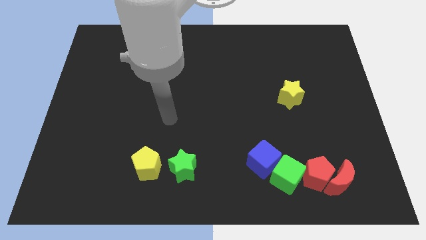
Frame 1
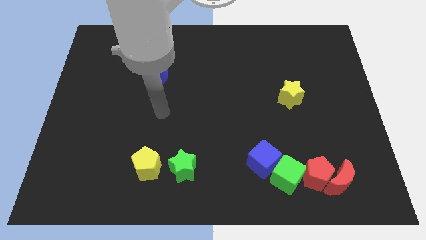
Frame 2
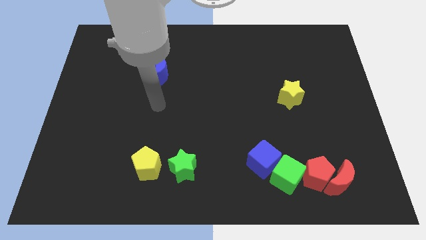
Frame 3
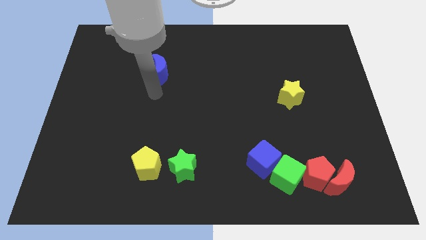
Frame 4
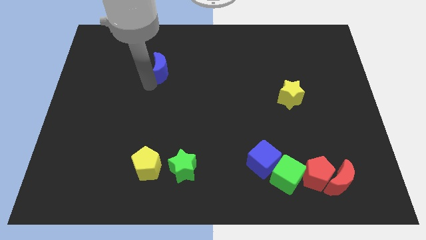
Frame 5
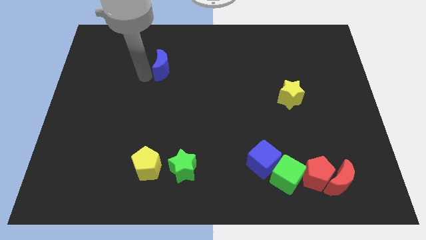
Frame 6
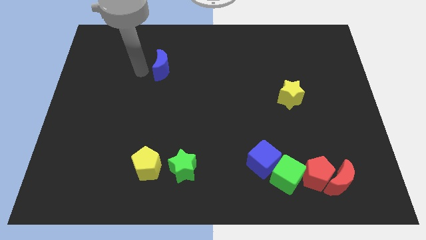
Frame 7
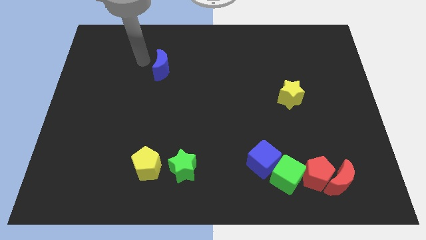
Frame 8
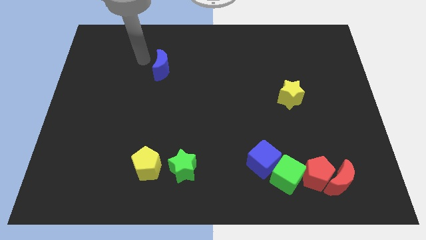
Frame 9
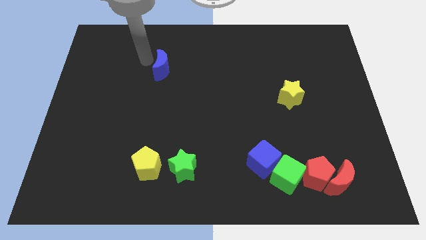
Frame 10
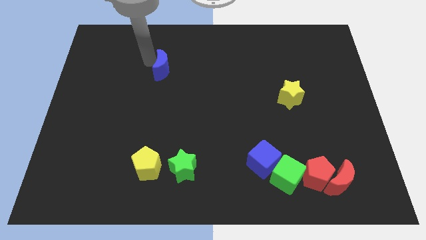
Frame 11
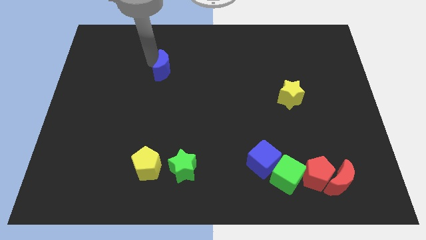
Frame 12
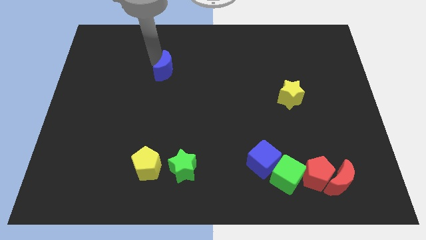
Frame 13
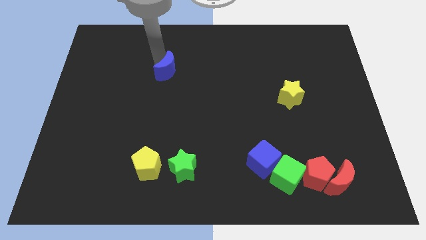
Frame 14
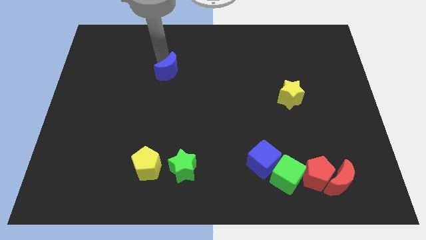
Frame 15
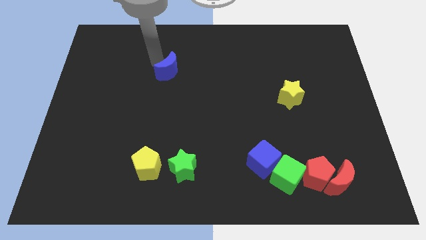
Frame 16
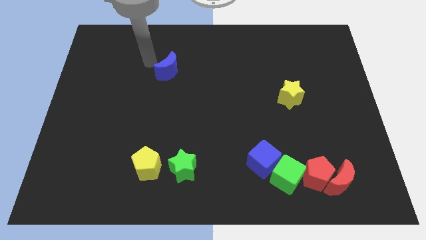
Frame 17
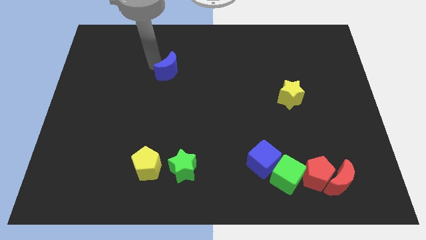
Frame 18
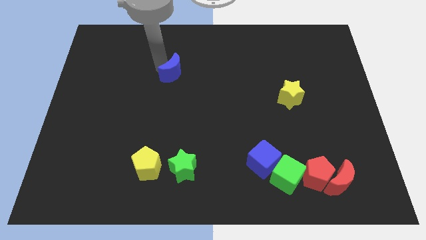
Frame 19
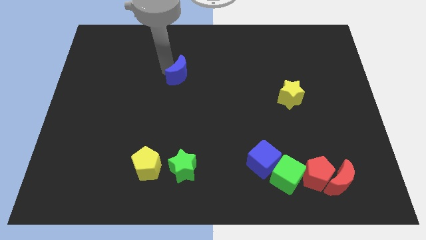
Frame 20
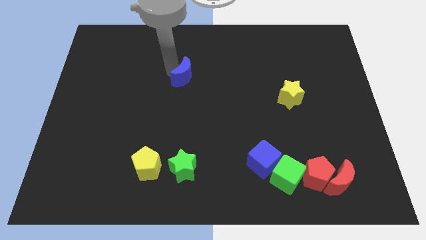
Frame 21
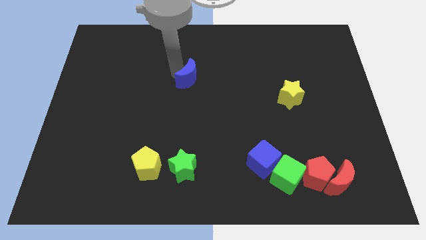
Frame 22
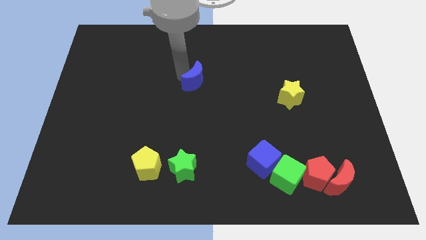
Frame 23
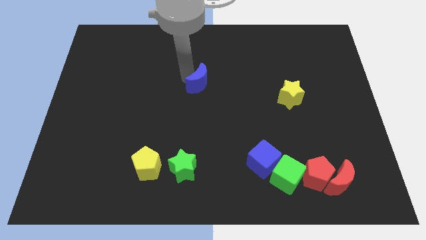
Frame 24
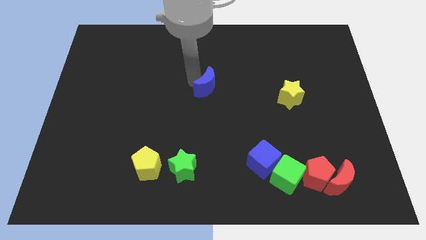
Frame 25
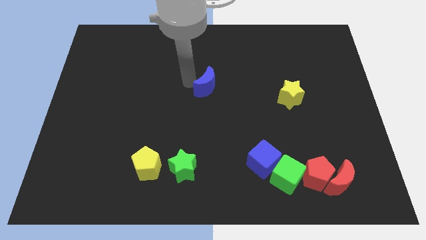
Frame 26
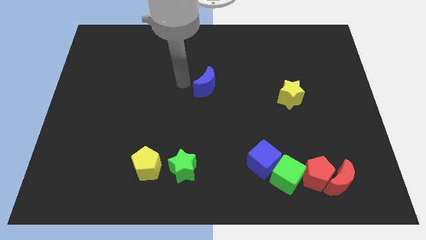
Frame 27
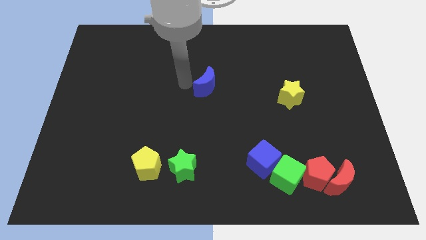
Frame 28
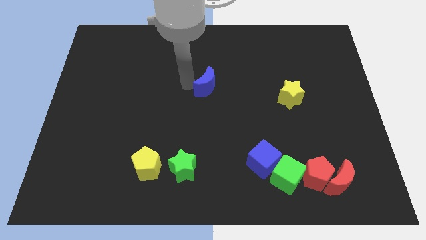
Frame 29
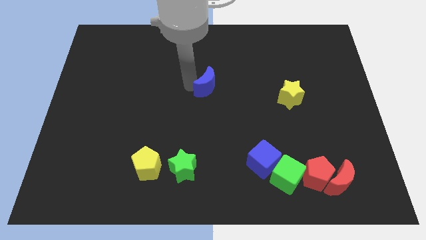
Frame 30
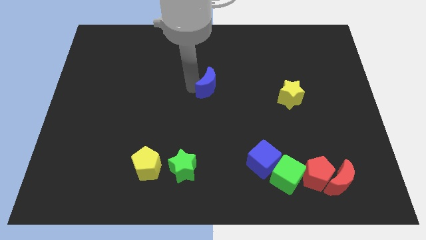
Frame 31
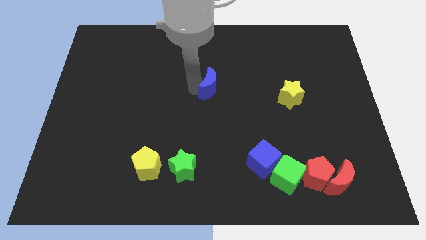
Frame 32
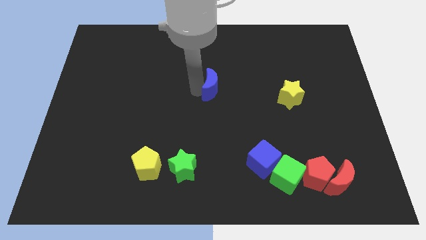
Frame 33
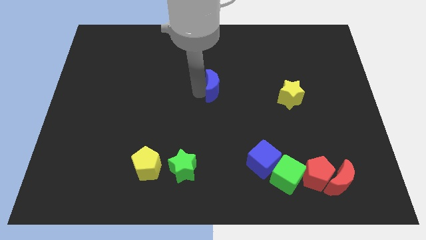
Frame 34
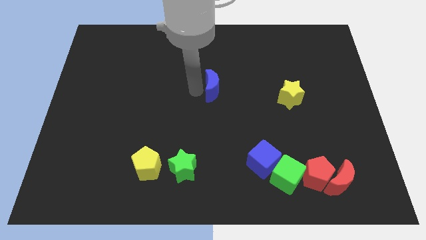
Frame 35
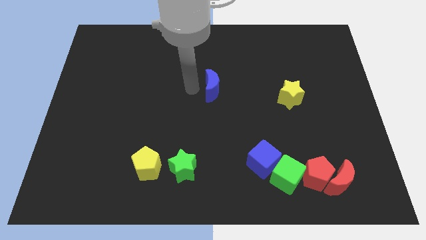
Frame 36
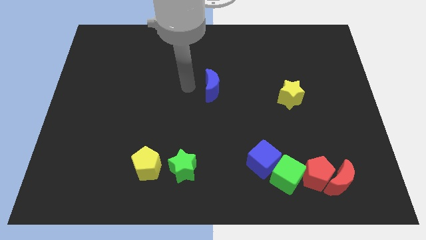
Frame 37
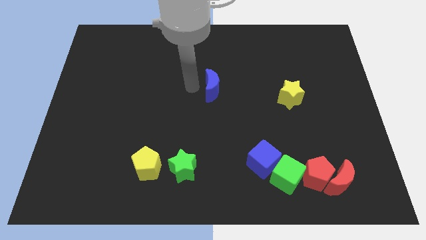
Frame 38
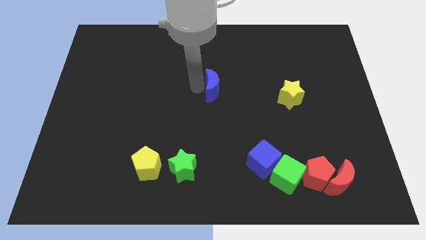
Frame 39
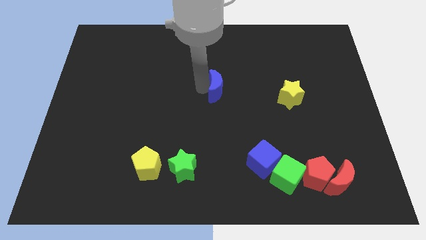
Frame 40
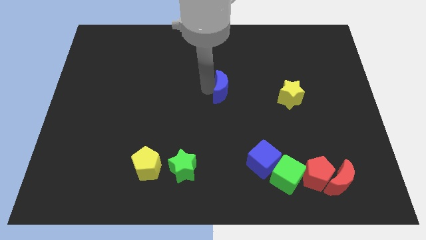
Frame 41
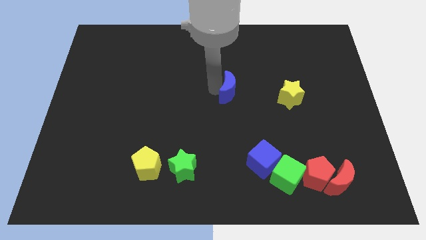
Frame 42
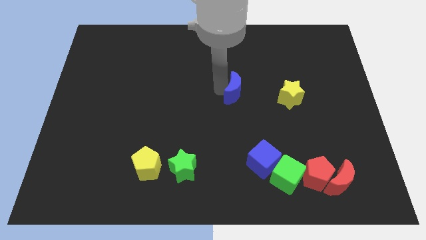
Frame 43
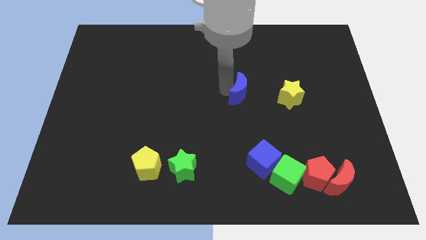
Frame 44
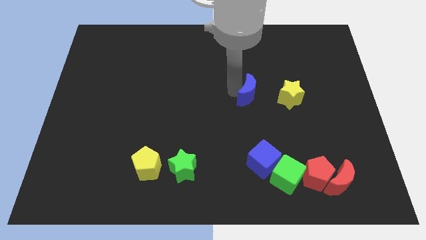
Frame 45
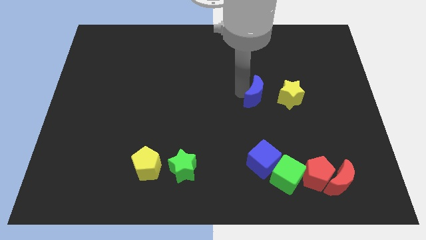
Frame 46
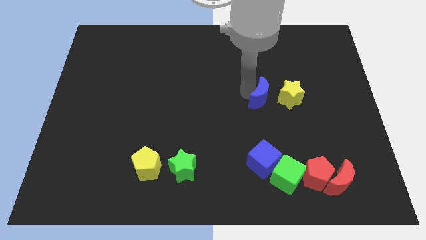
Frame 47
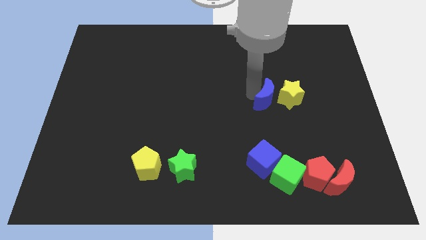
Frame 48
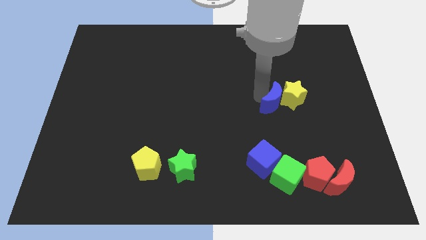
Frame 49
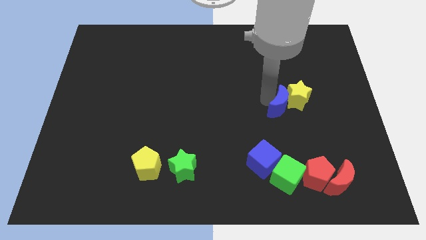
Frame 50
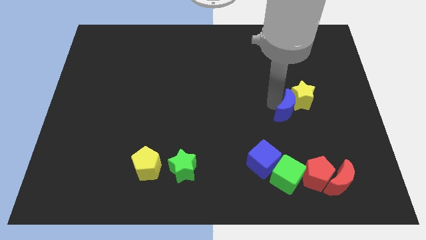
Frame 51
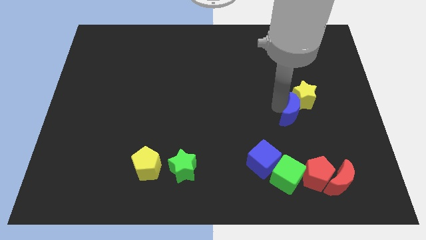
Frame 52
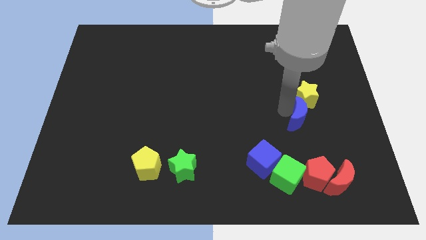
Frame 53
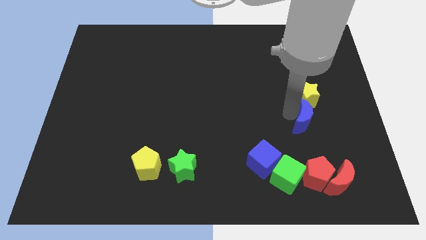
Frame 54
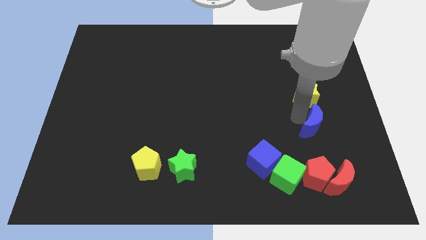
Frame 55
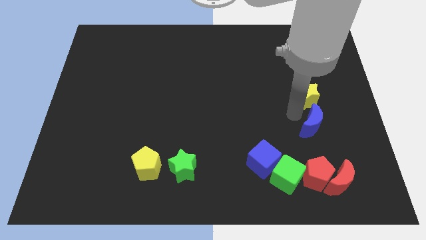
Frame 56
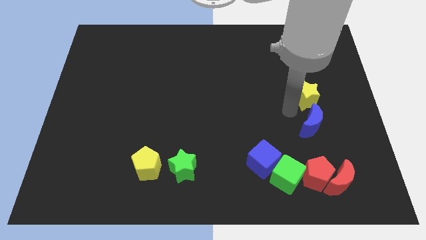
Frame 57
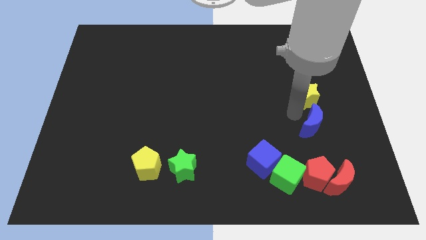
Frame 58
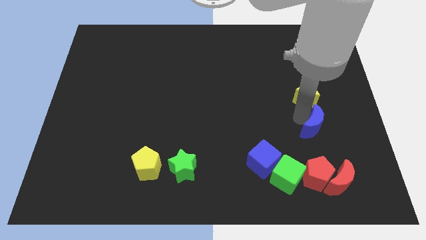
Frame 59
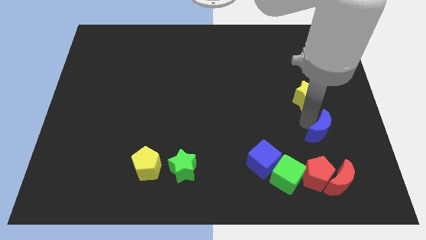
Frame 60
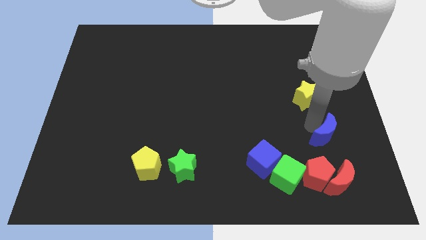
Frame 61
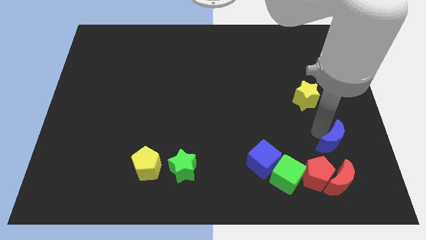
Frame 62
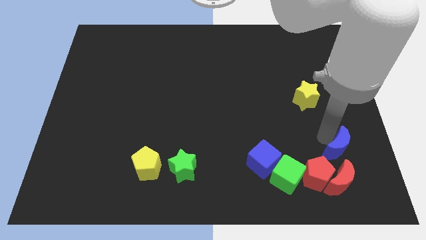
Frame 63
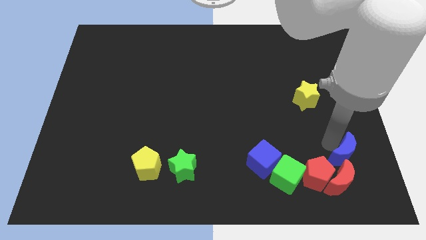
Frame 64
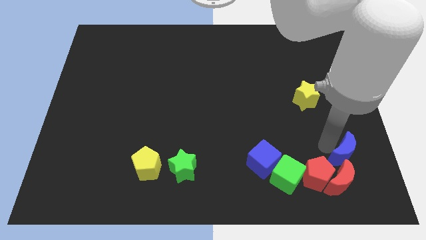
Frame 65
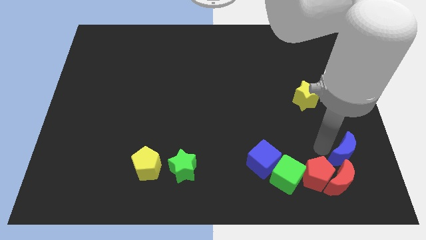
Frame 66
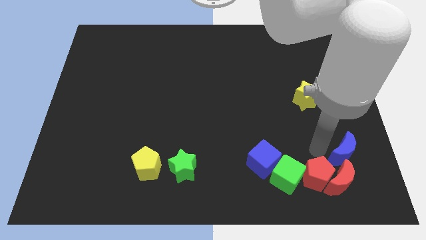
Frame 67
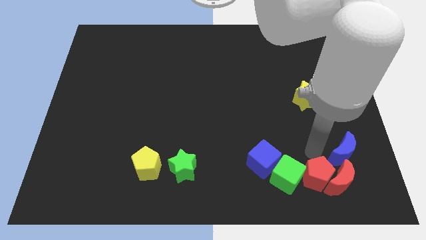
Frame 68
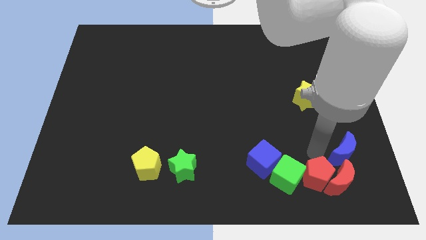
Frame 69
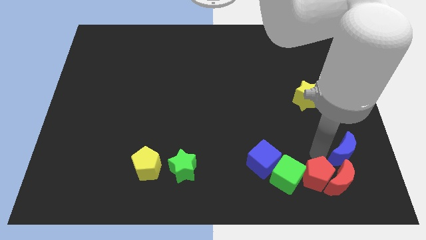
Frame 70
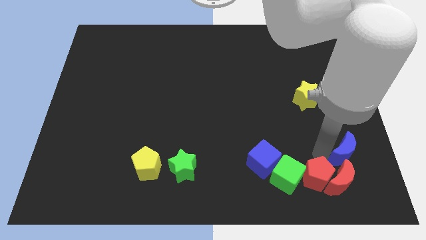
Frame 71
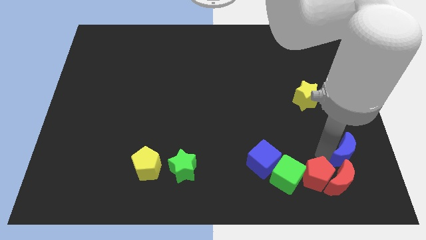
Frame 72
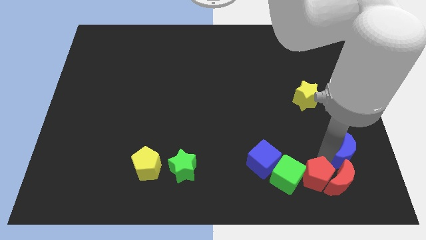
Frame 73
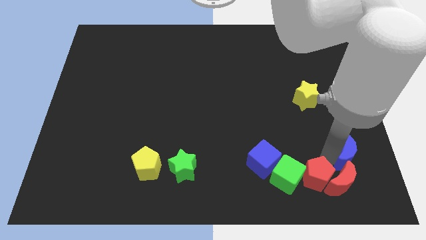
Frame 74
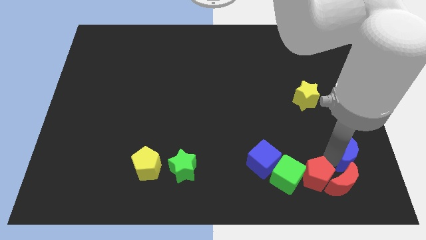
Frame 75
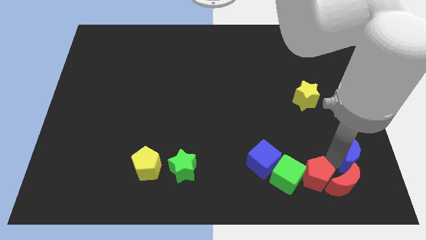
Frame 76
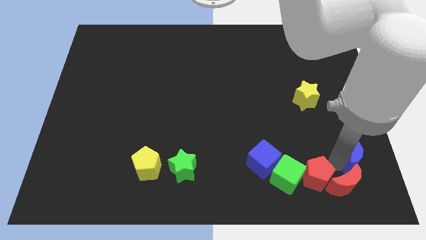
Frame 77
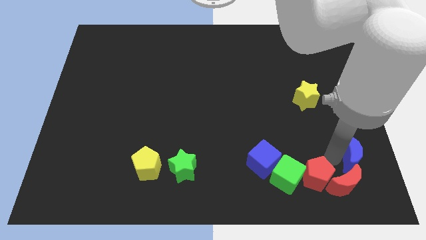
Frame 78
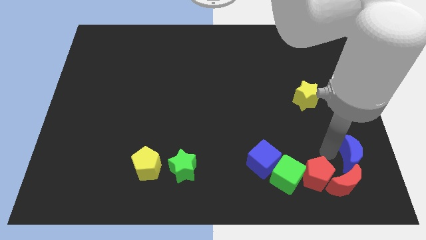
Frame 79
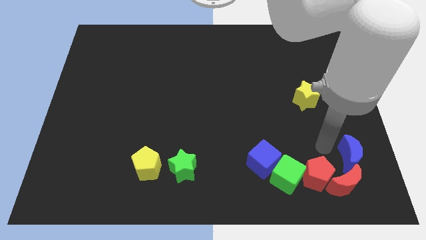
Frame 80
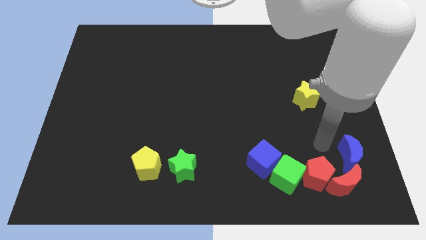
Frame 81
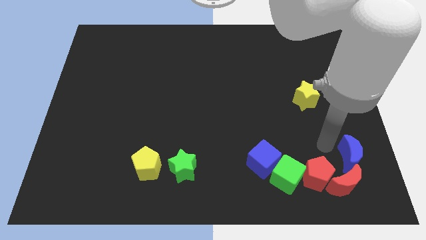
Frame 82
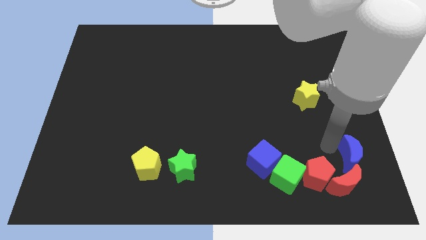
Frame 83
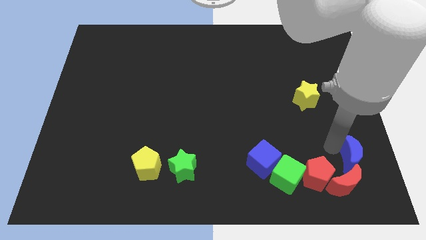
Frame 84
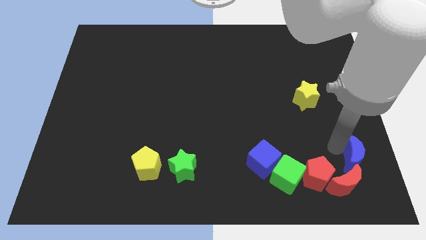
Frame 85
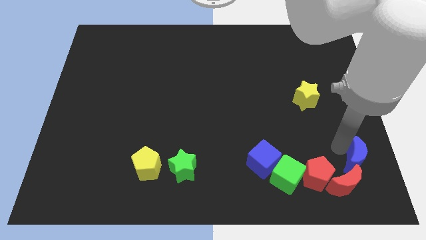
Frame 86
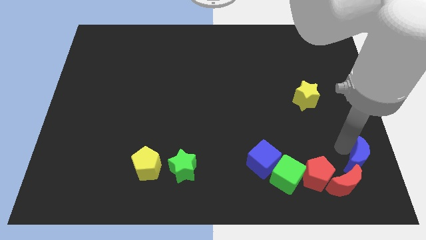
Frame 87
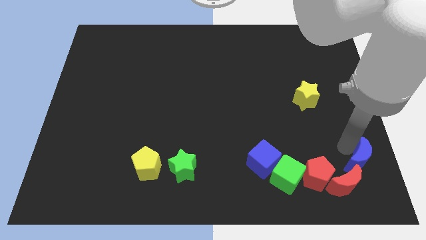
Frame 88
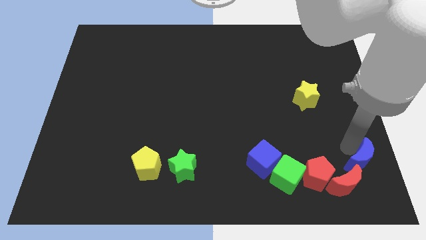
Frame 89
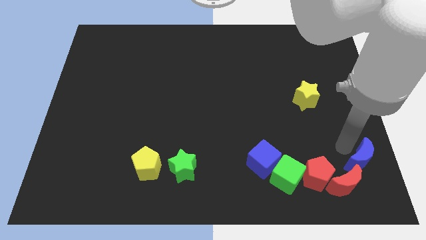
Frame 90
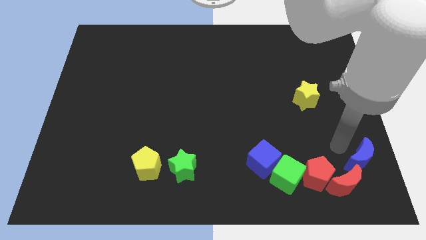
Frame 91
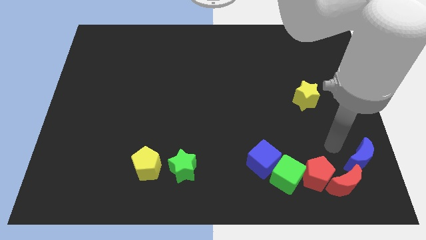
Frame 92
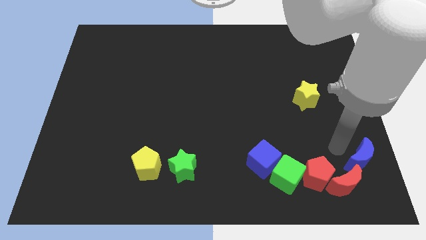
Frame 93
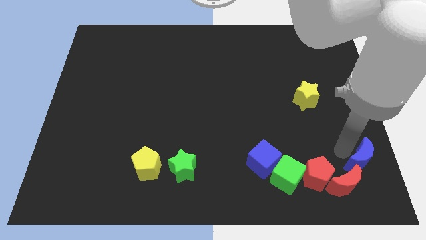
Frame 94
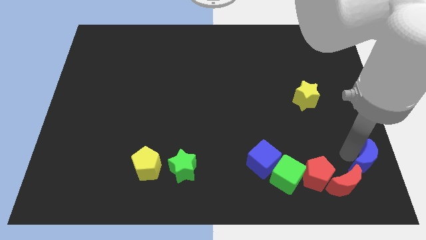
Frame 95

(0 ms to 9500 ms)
push the blue moon to the bottom right of the board
